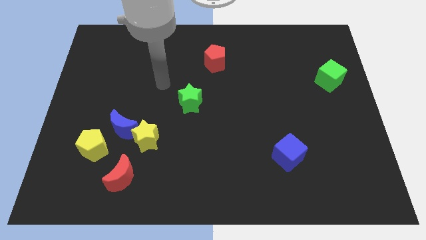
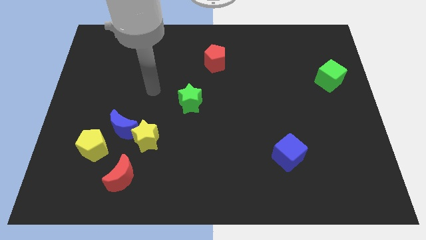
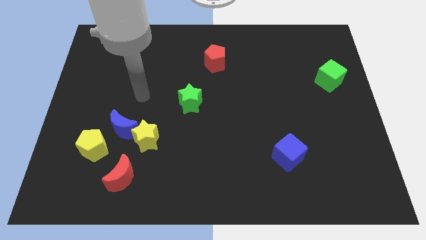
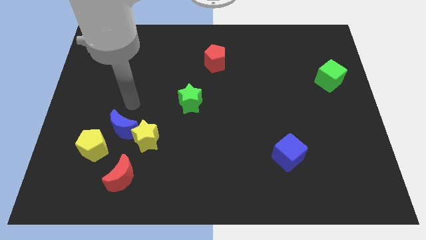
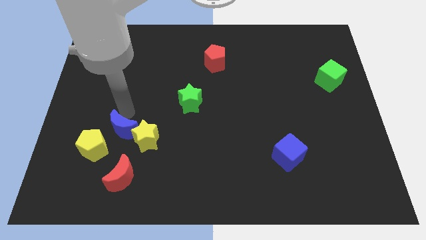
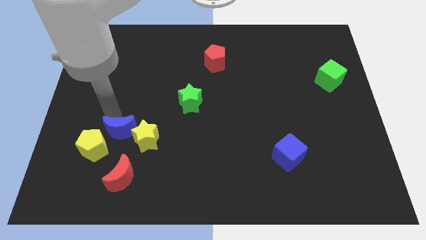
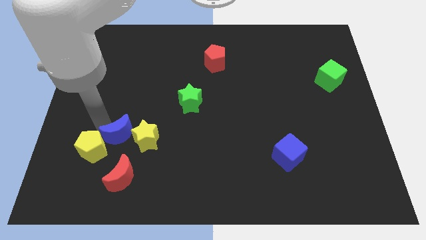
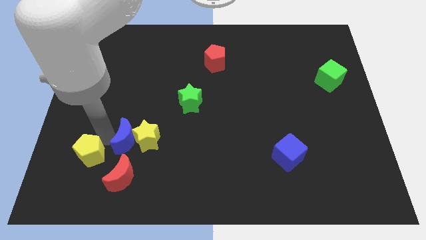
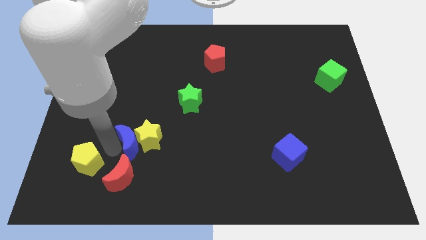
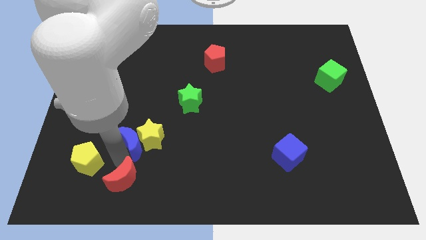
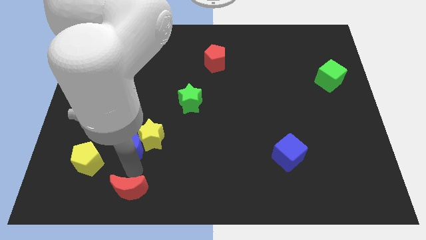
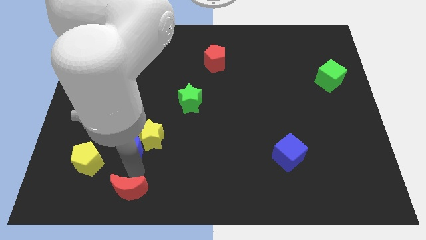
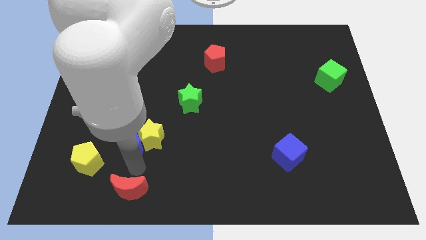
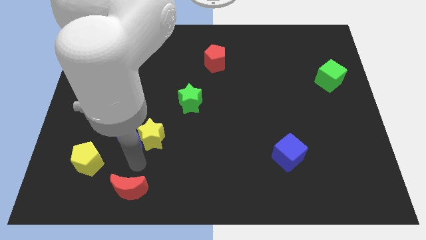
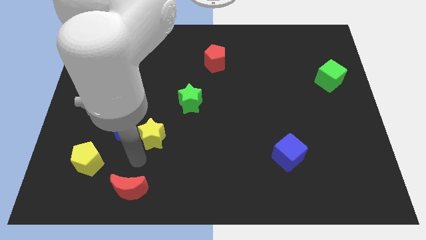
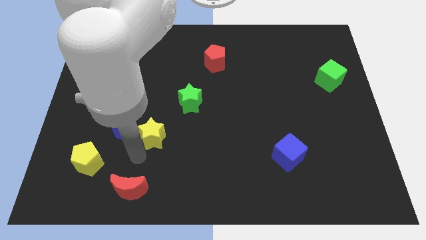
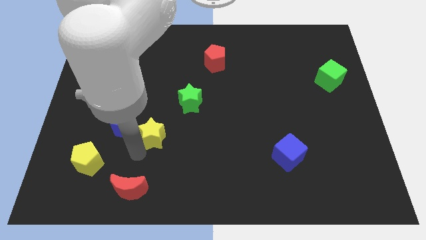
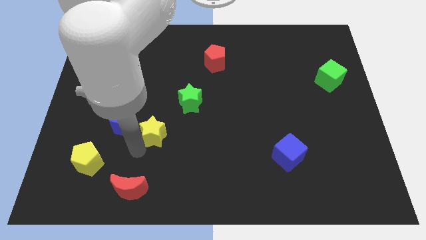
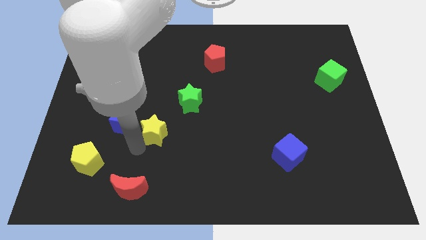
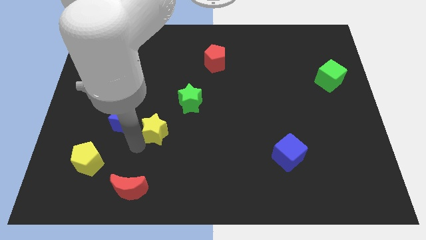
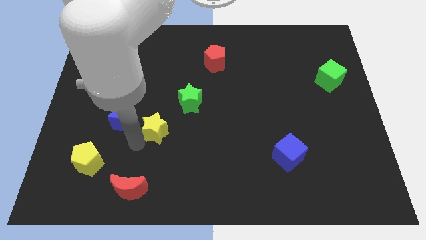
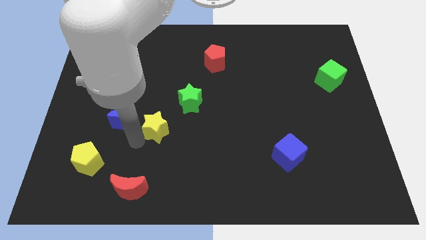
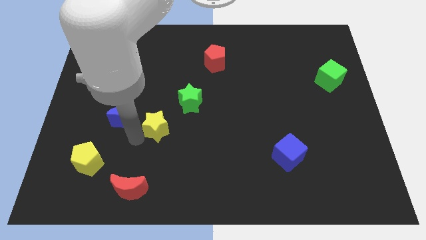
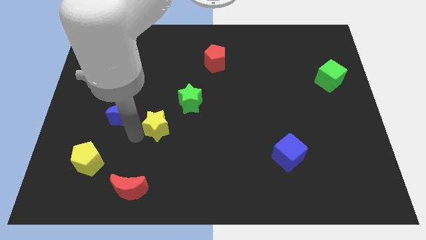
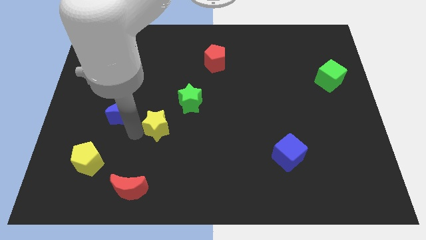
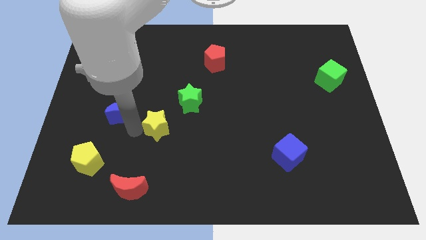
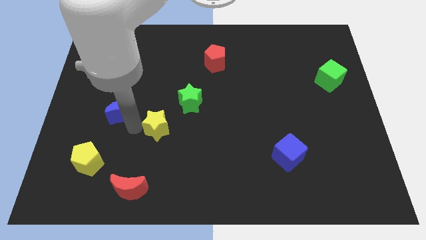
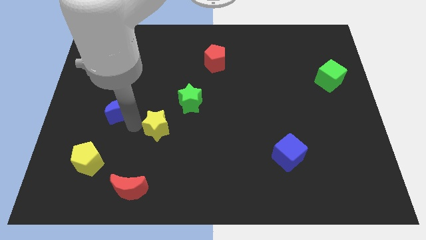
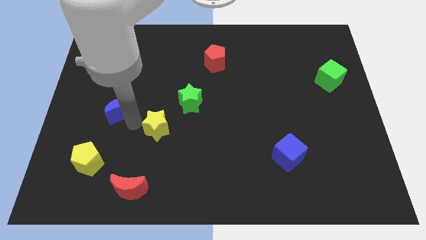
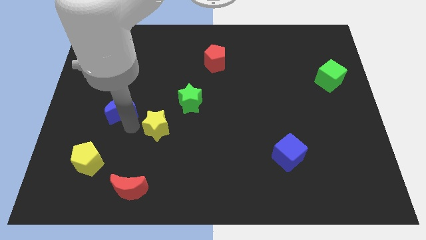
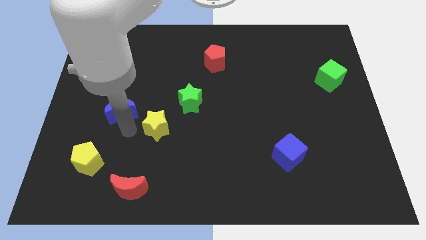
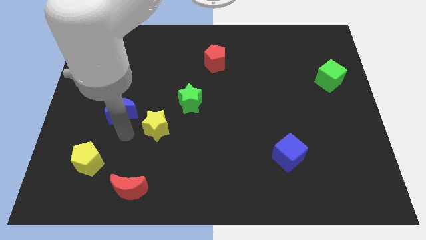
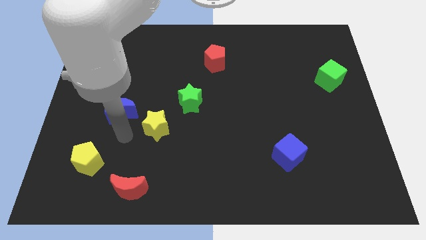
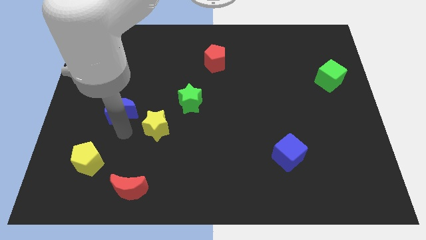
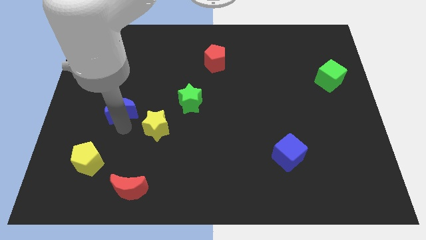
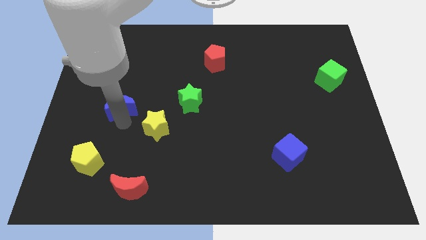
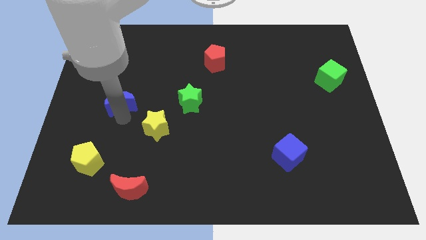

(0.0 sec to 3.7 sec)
move the blue moon away from the yellow star and yellow pentagon

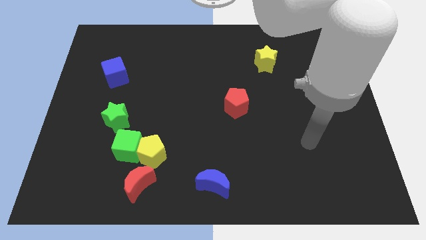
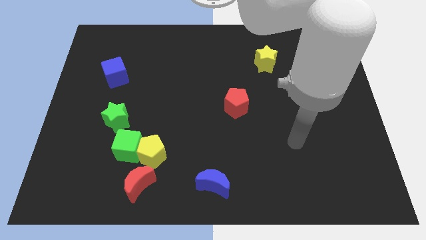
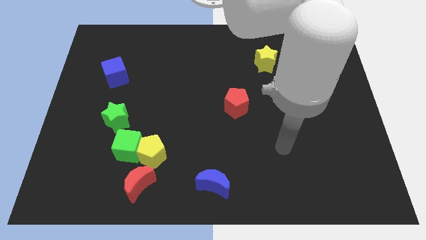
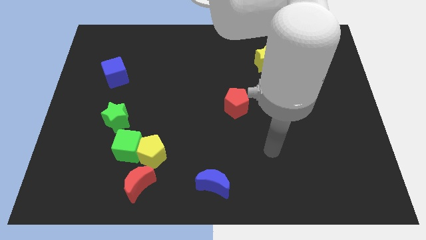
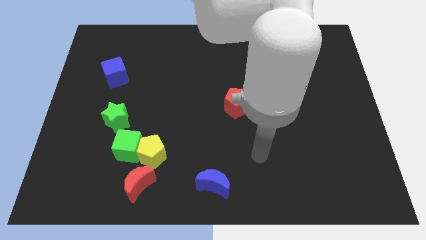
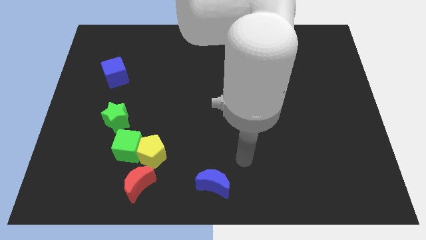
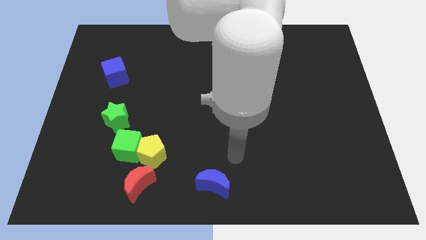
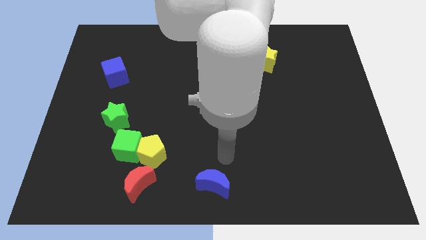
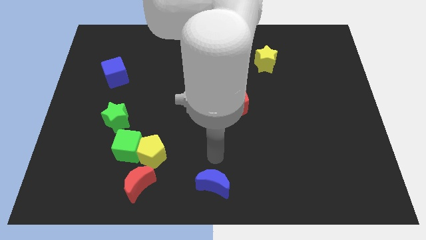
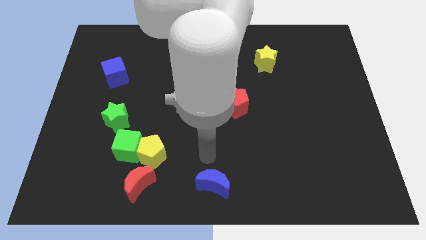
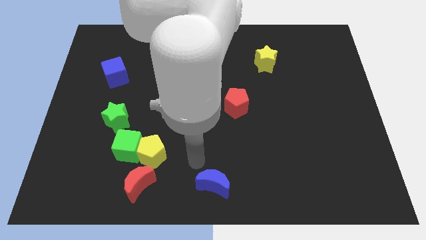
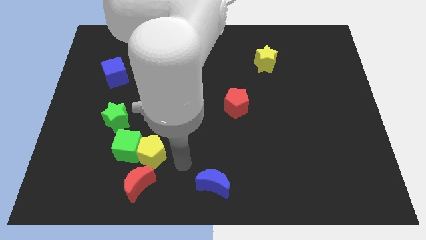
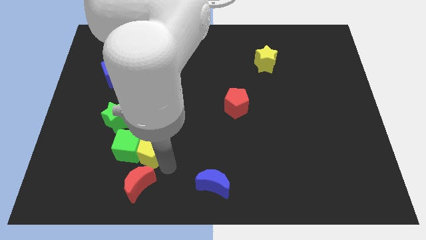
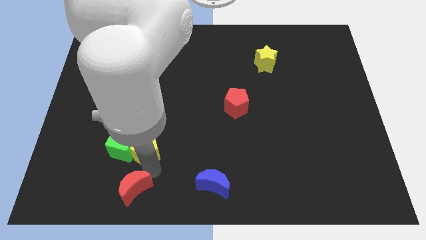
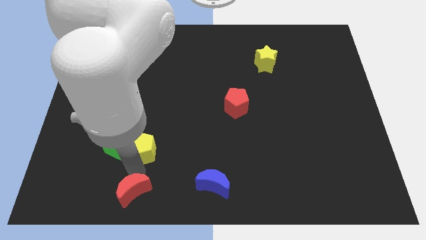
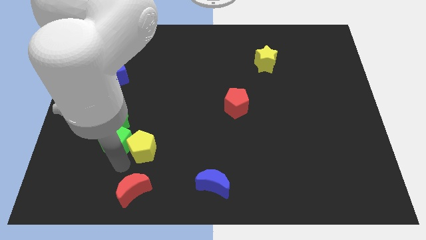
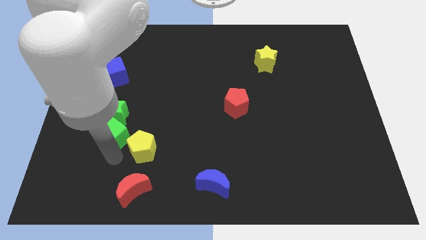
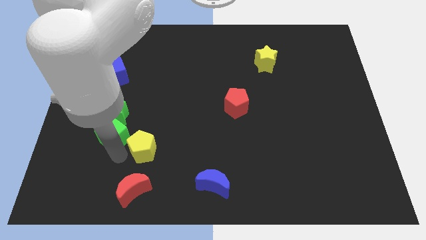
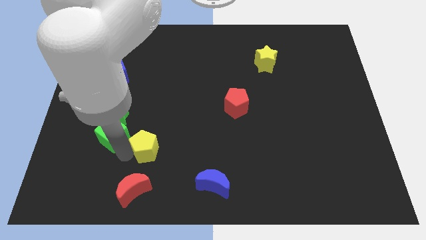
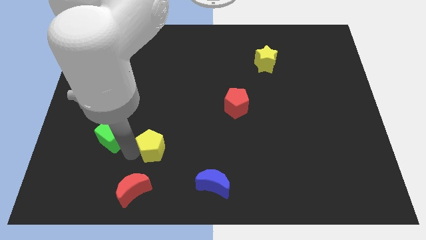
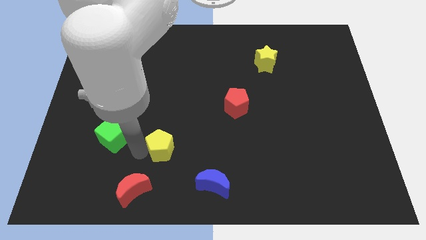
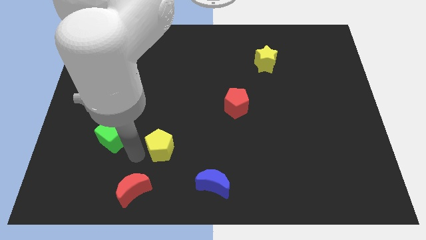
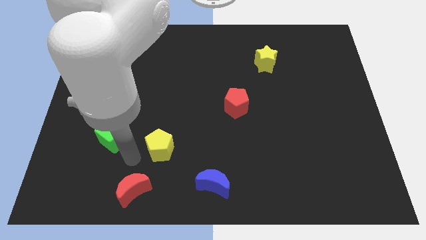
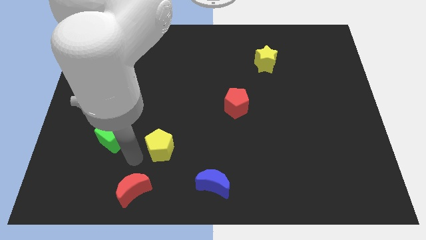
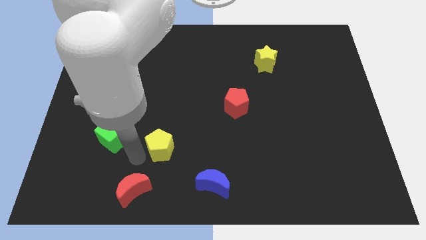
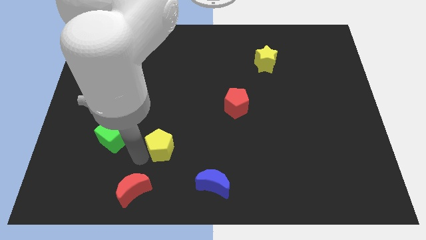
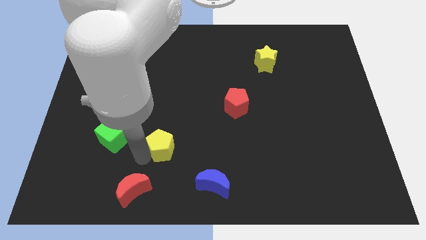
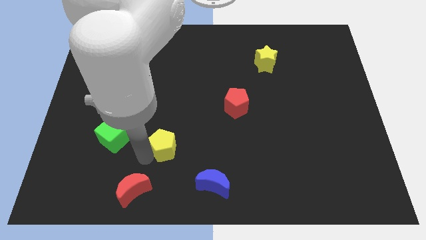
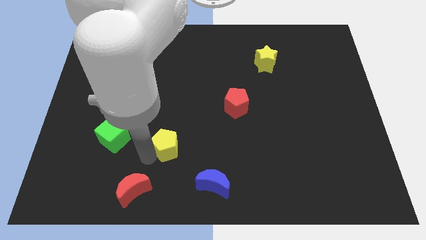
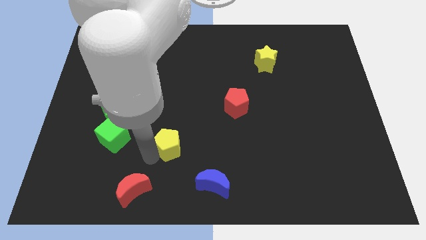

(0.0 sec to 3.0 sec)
move the yellow pentagon away from the green cube and red moon

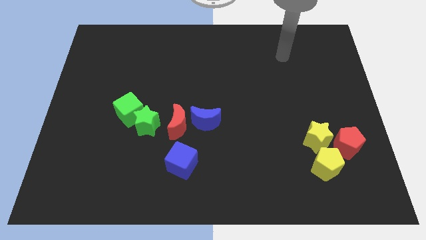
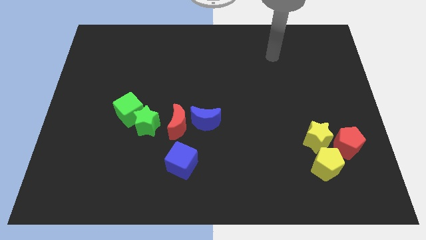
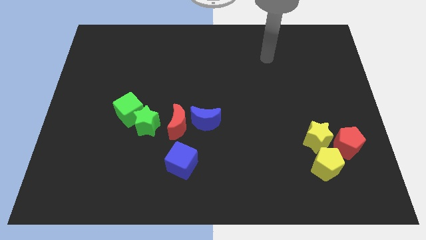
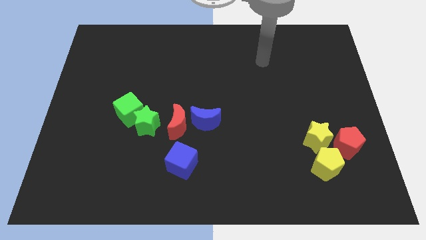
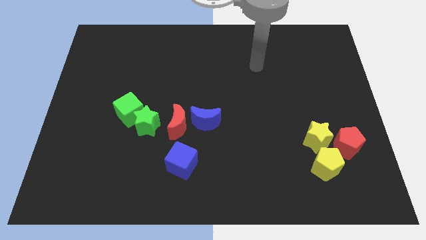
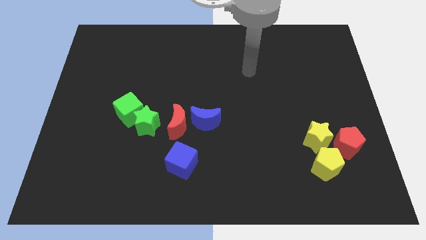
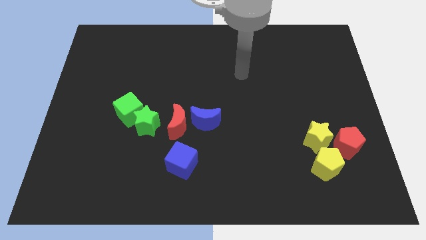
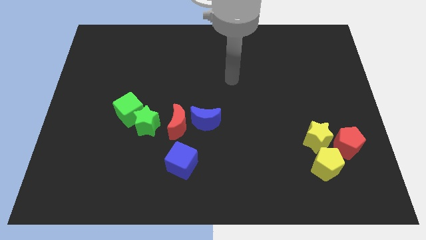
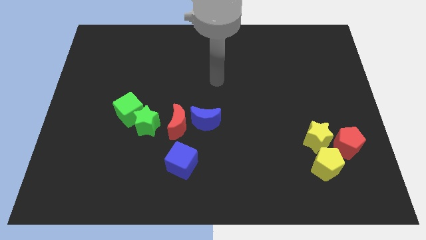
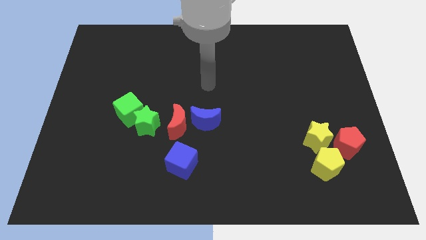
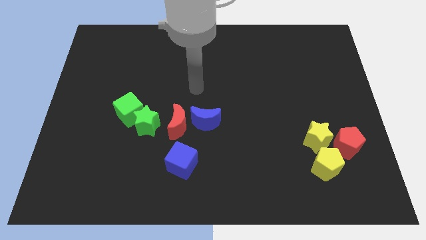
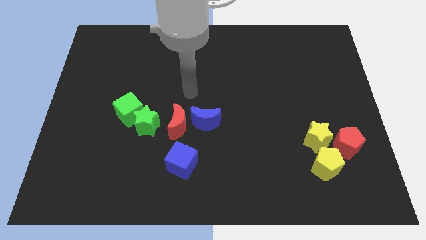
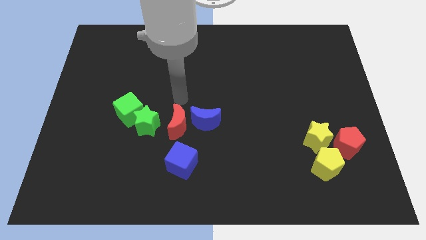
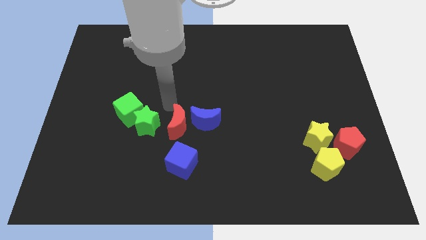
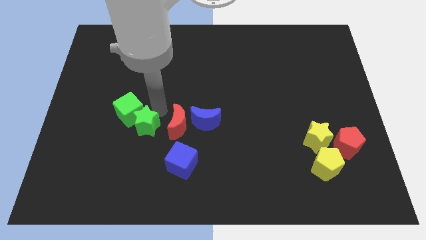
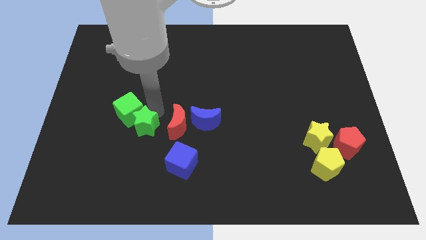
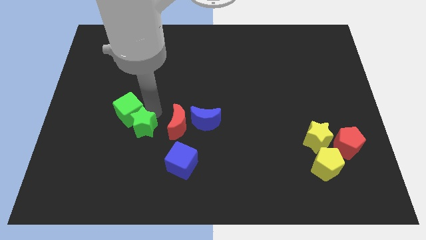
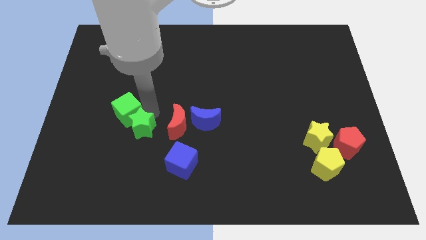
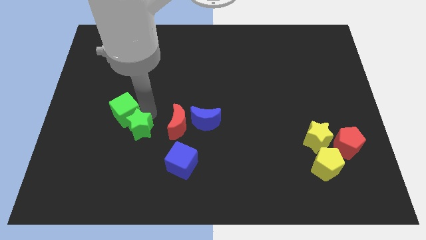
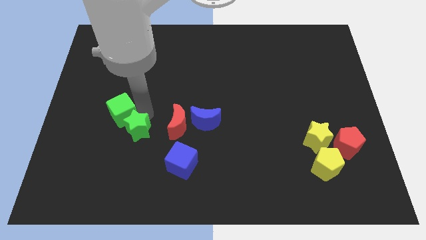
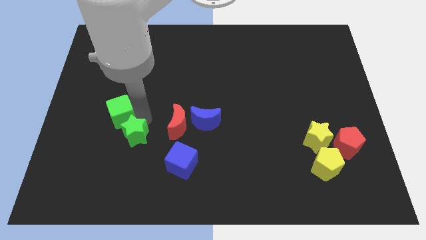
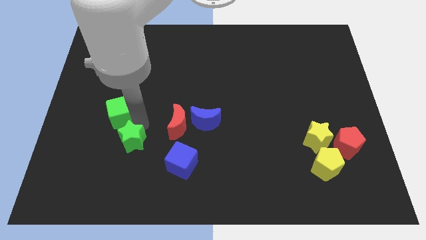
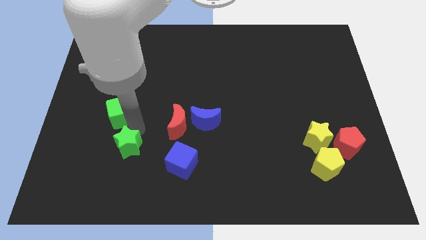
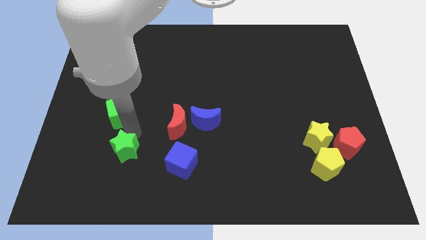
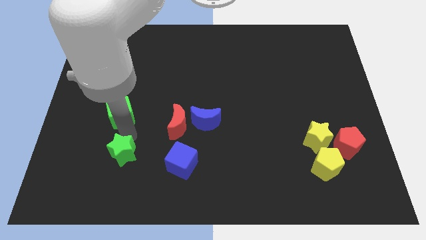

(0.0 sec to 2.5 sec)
pull the green cube apart from the green star

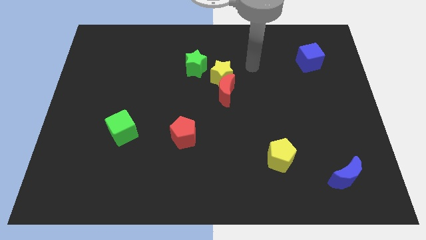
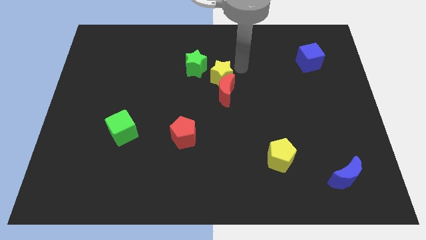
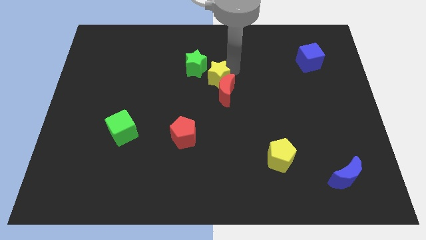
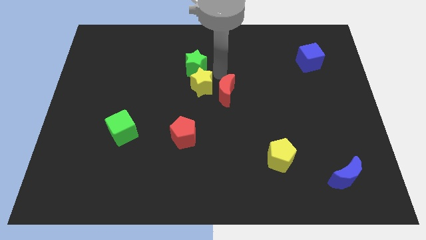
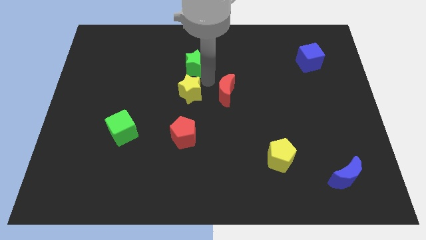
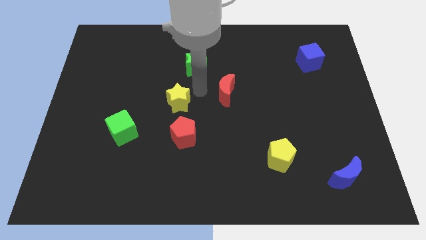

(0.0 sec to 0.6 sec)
move the red moon away from the yellow star
